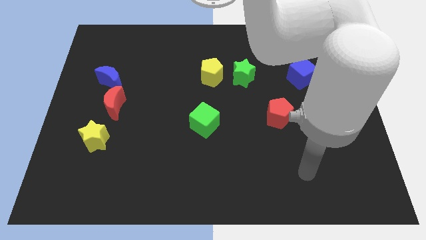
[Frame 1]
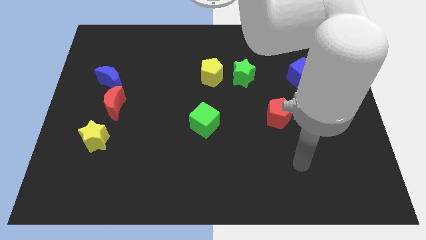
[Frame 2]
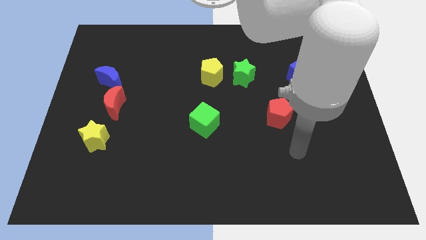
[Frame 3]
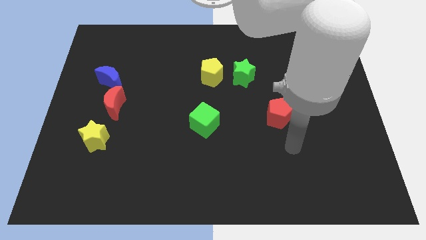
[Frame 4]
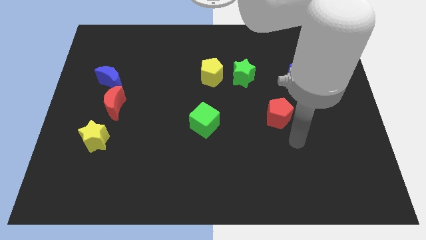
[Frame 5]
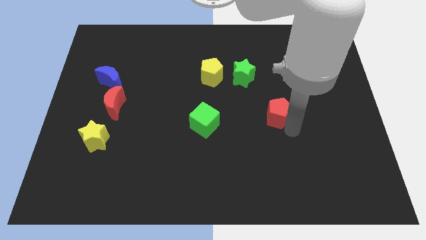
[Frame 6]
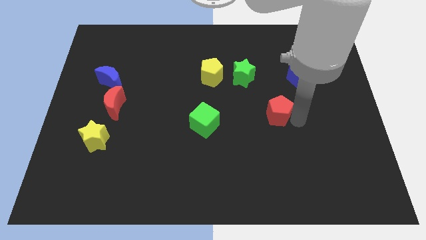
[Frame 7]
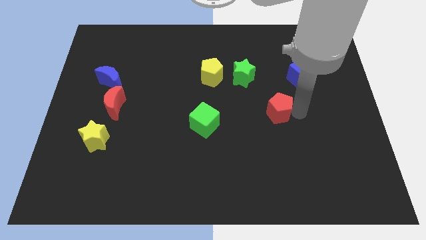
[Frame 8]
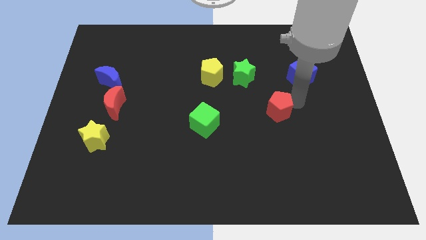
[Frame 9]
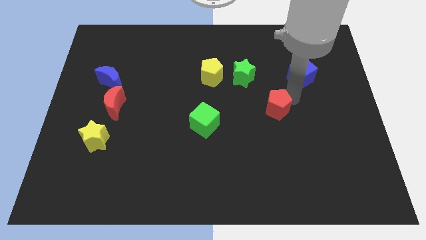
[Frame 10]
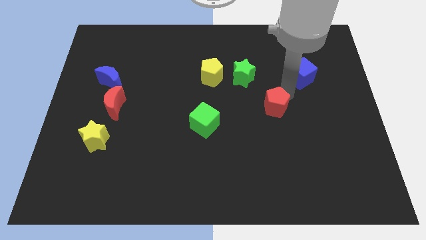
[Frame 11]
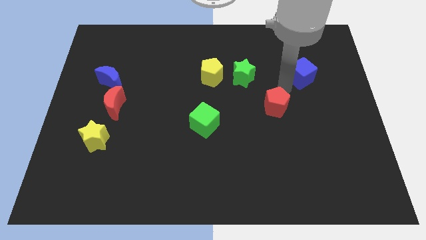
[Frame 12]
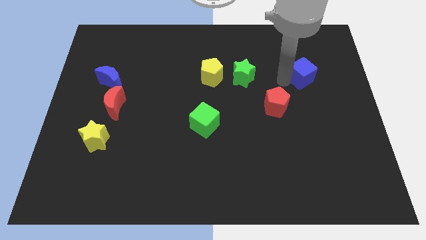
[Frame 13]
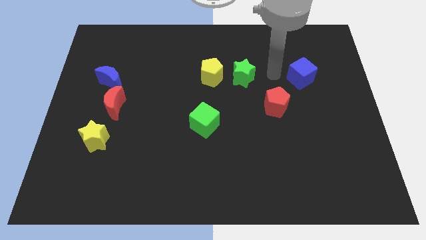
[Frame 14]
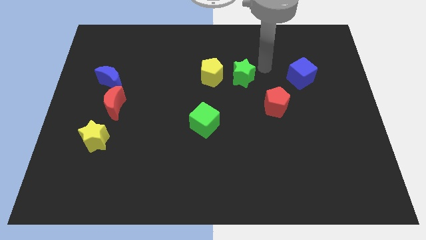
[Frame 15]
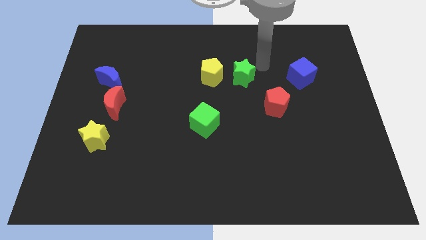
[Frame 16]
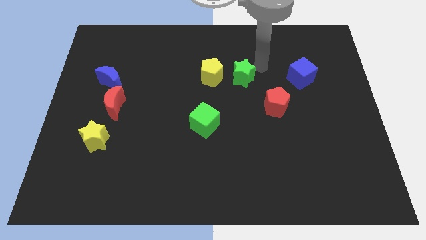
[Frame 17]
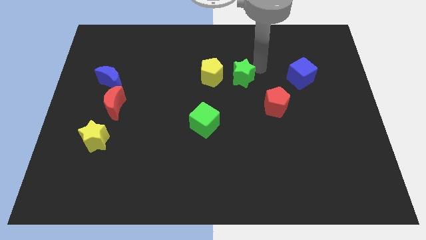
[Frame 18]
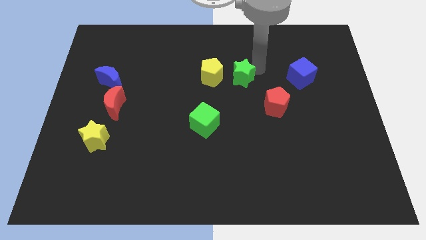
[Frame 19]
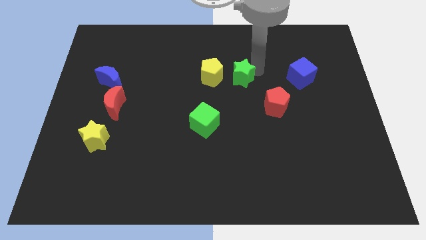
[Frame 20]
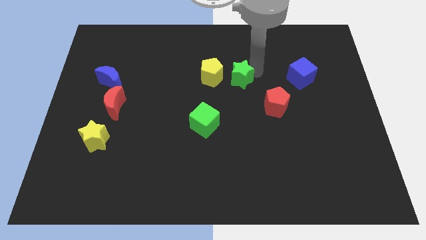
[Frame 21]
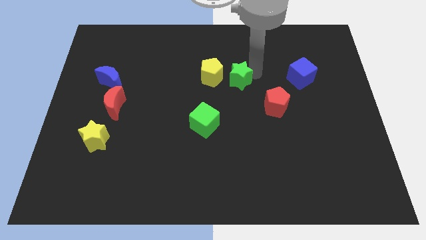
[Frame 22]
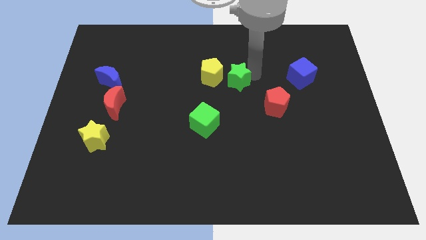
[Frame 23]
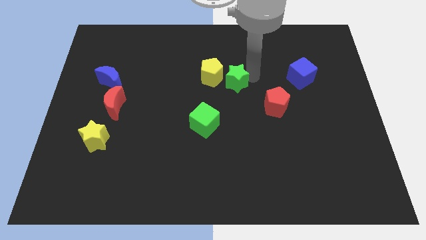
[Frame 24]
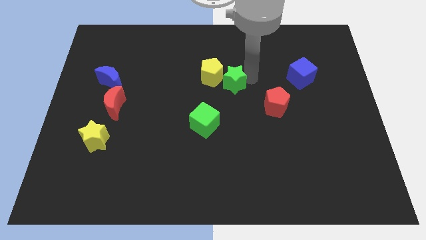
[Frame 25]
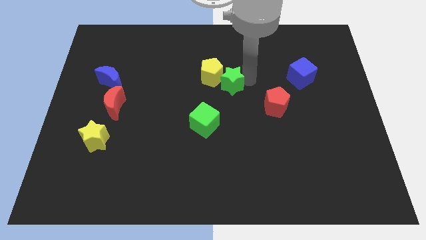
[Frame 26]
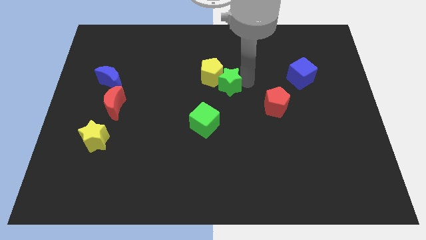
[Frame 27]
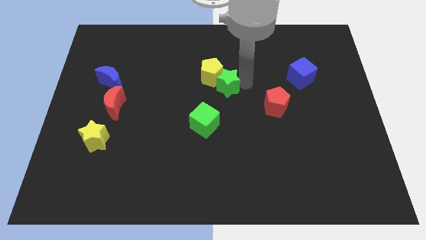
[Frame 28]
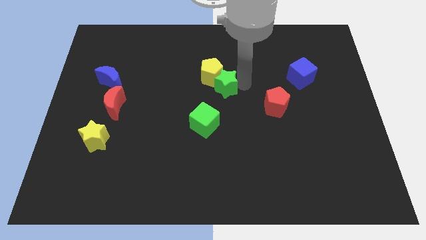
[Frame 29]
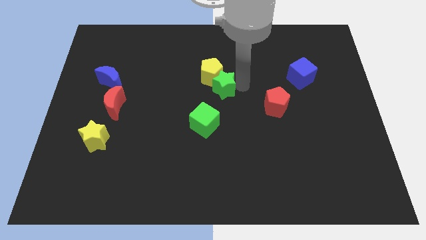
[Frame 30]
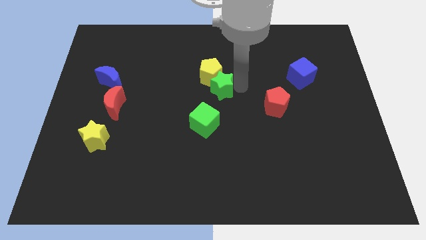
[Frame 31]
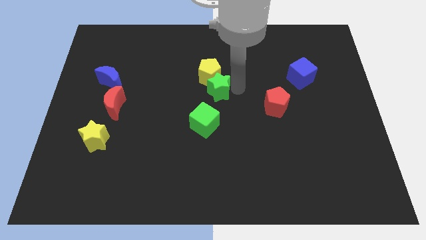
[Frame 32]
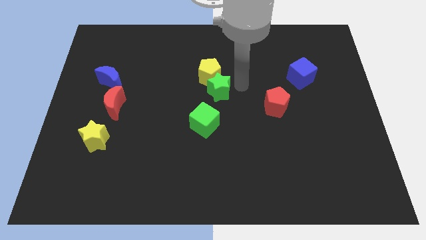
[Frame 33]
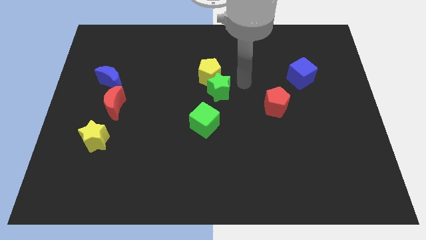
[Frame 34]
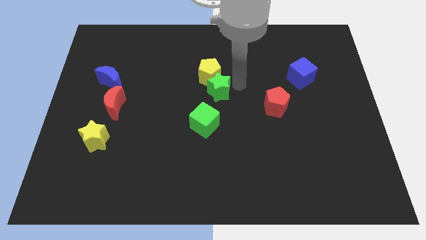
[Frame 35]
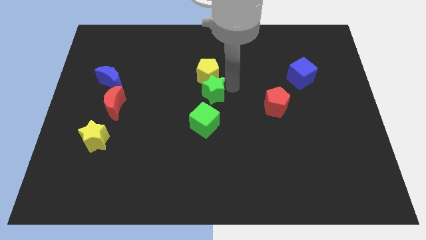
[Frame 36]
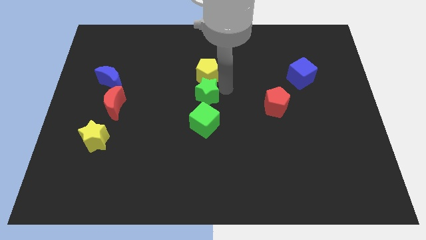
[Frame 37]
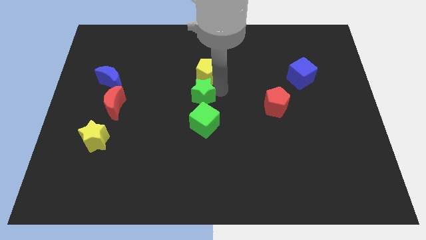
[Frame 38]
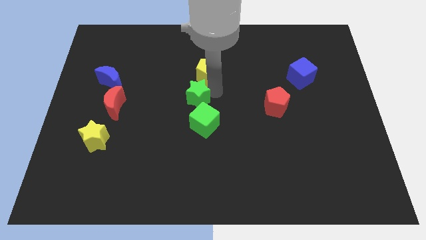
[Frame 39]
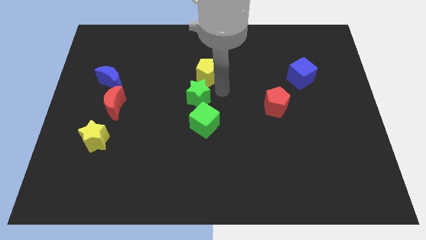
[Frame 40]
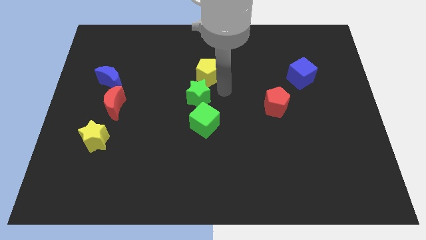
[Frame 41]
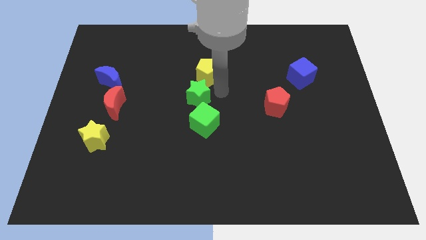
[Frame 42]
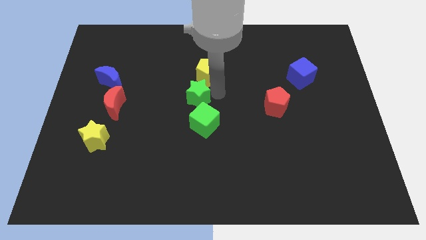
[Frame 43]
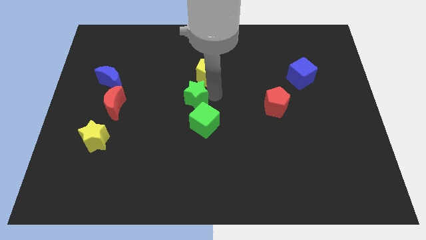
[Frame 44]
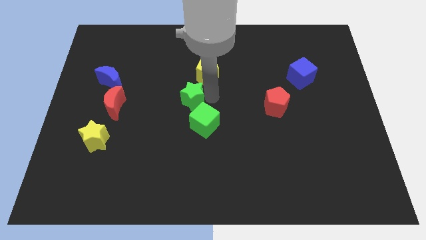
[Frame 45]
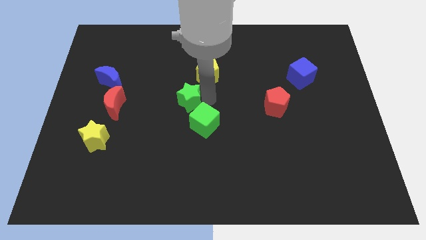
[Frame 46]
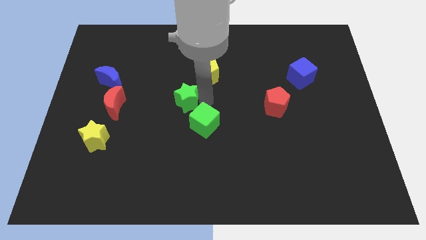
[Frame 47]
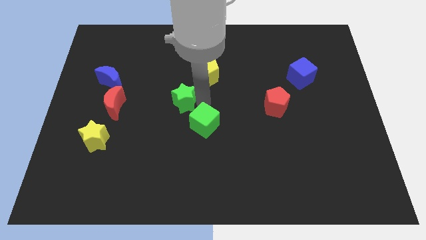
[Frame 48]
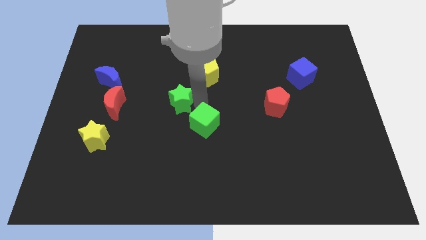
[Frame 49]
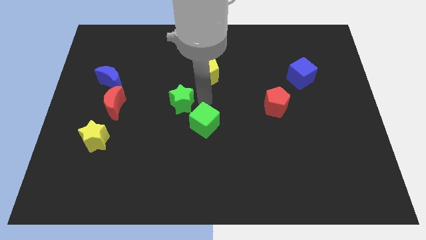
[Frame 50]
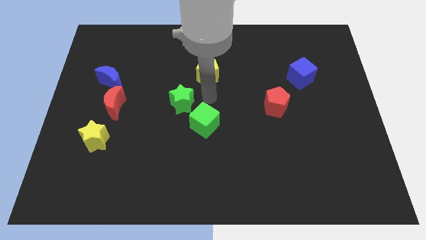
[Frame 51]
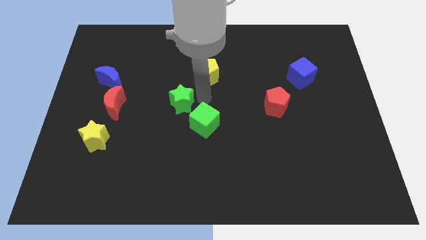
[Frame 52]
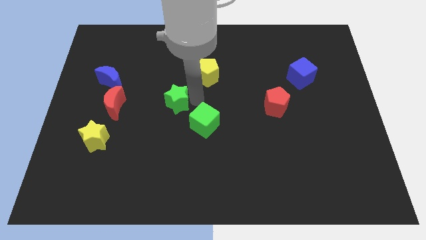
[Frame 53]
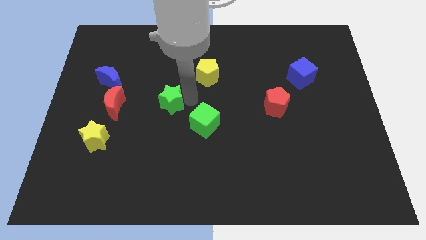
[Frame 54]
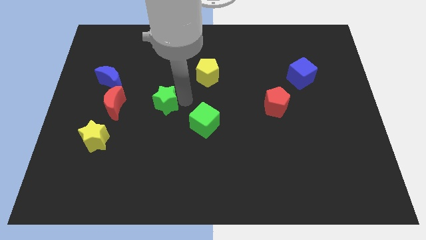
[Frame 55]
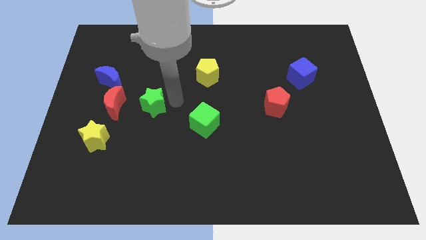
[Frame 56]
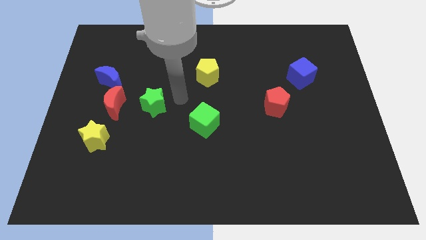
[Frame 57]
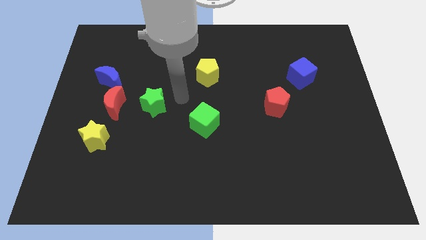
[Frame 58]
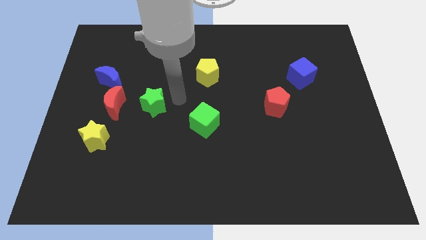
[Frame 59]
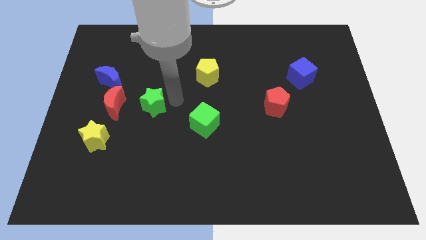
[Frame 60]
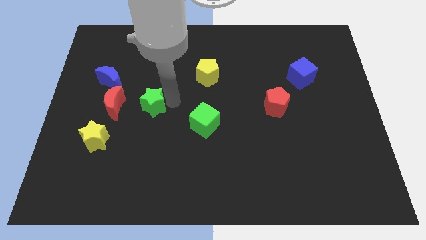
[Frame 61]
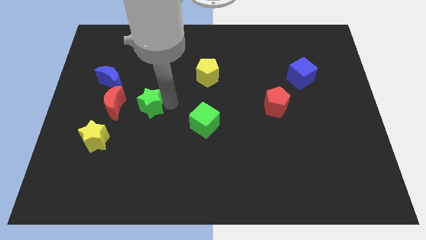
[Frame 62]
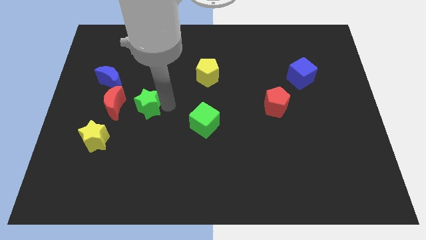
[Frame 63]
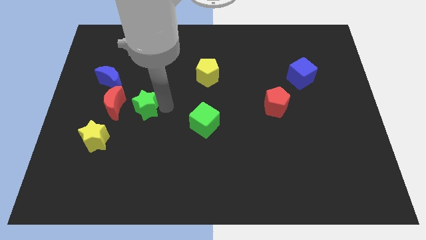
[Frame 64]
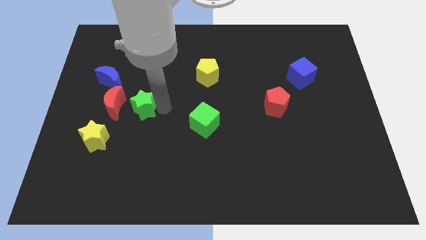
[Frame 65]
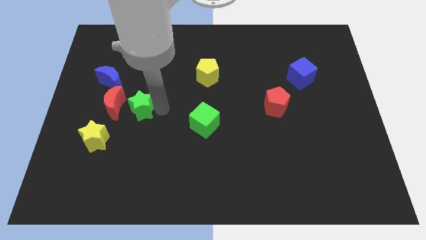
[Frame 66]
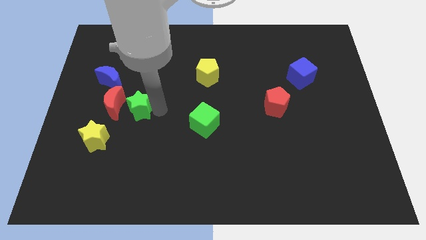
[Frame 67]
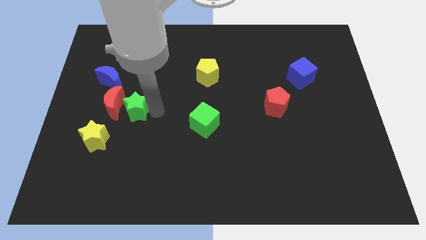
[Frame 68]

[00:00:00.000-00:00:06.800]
move the green star next to the red moon

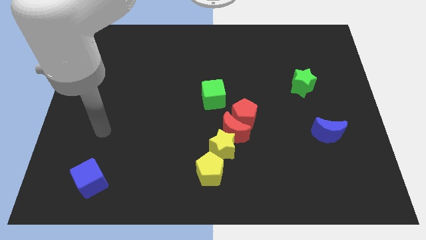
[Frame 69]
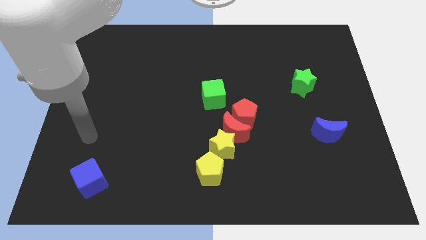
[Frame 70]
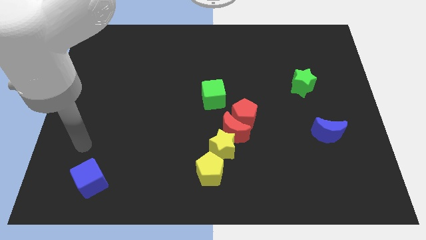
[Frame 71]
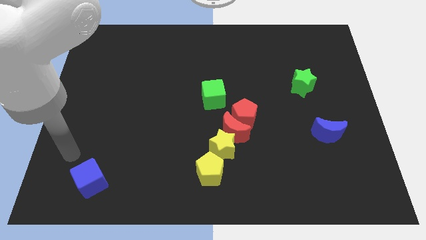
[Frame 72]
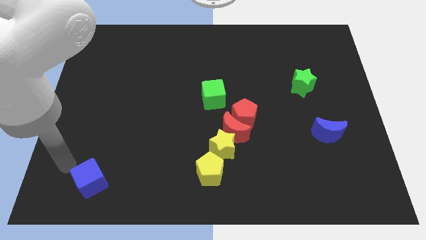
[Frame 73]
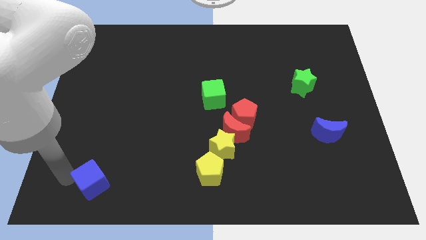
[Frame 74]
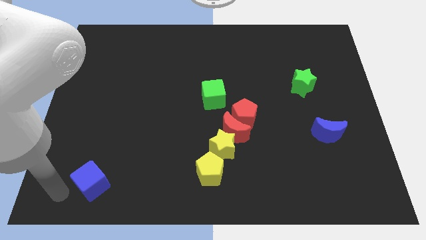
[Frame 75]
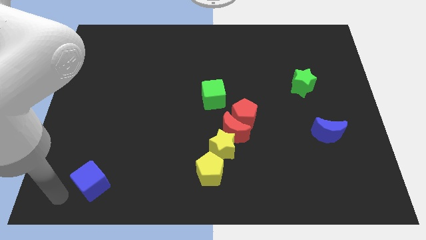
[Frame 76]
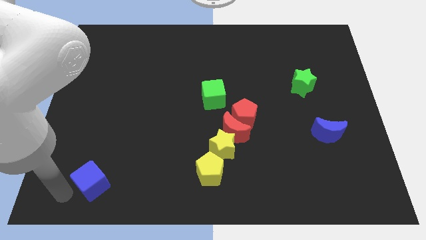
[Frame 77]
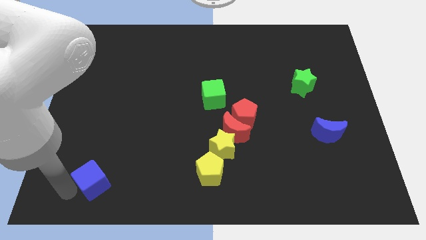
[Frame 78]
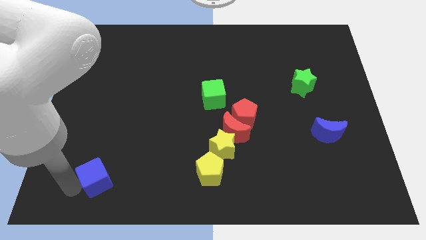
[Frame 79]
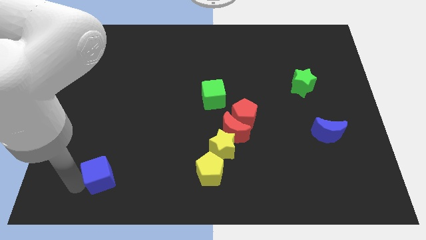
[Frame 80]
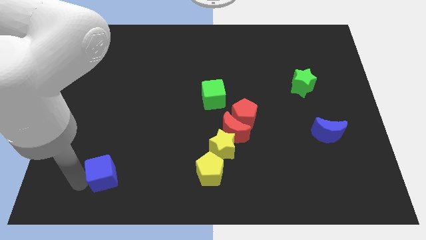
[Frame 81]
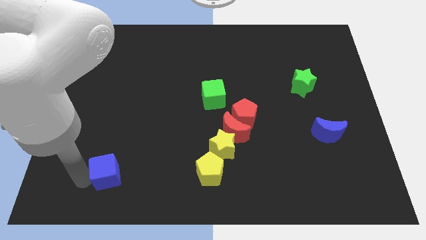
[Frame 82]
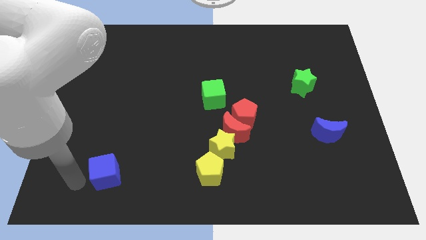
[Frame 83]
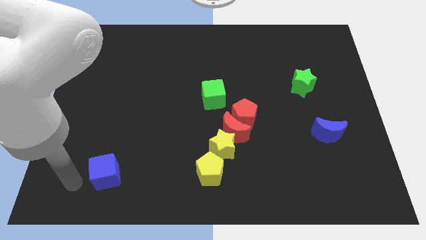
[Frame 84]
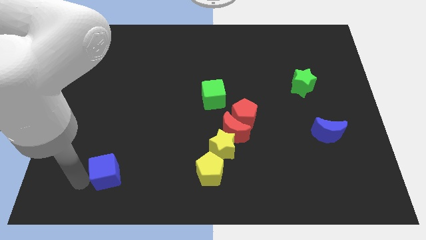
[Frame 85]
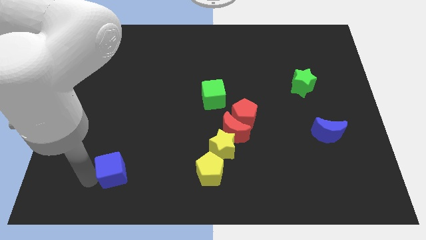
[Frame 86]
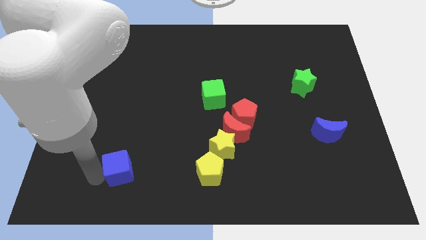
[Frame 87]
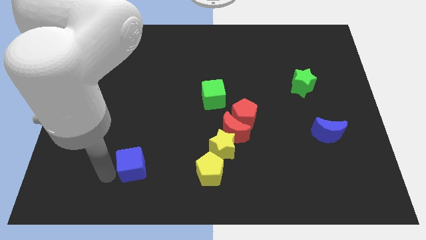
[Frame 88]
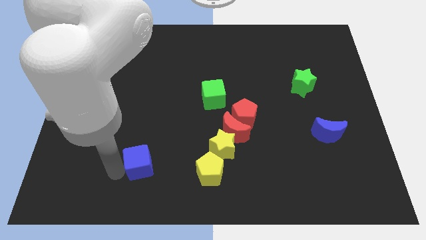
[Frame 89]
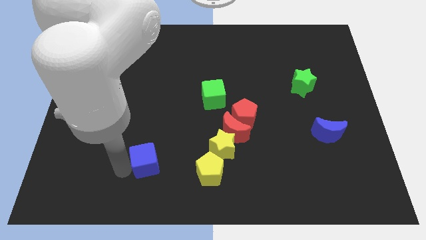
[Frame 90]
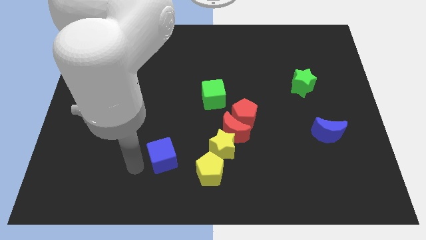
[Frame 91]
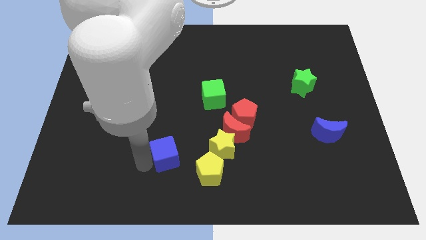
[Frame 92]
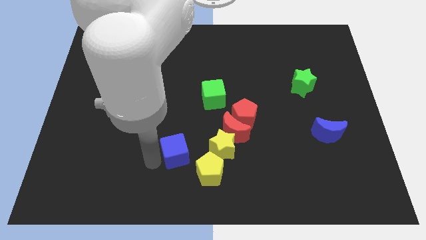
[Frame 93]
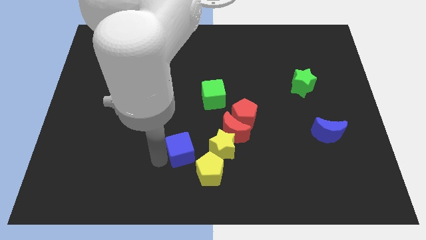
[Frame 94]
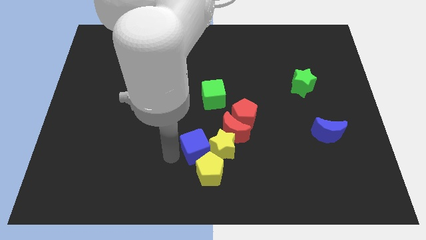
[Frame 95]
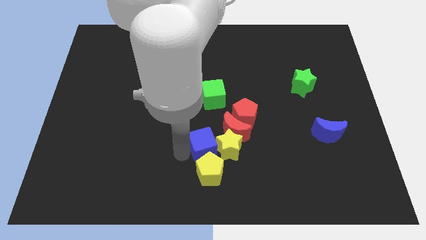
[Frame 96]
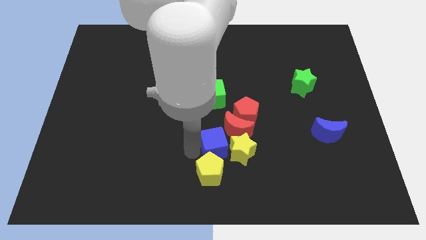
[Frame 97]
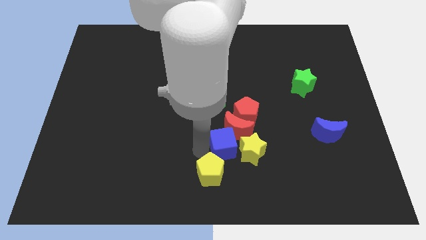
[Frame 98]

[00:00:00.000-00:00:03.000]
push the blue cube close to the red moon
